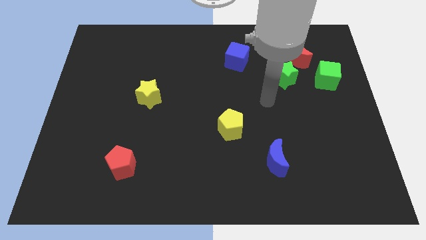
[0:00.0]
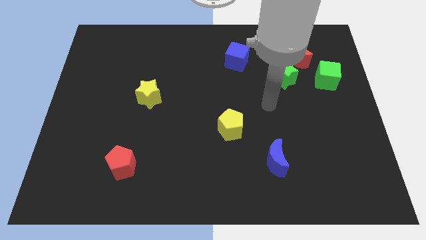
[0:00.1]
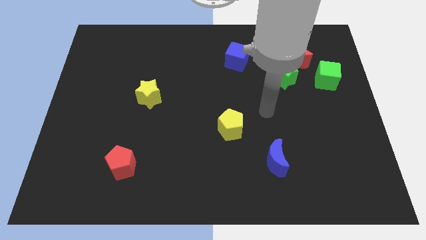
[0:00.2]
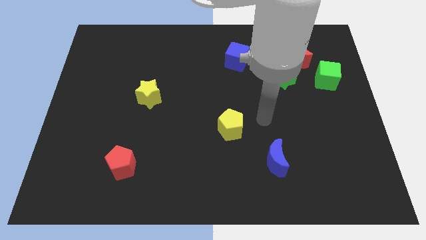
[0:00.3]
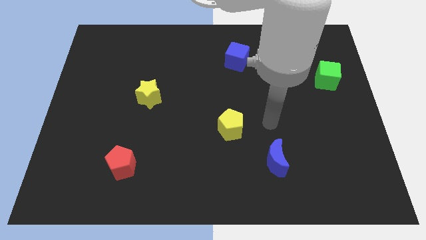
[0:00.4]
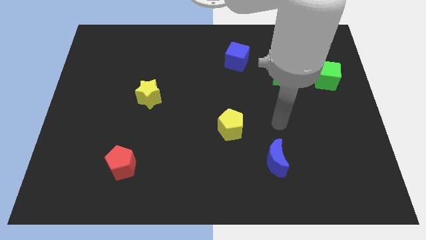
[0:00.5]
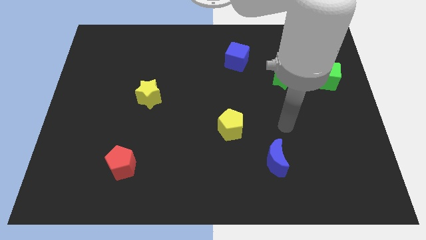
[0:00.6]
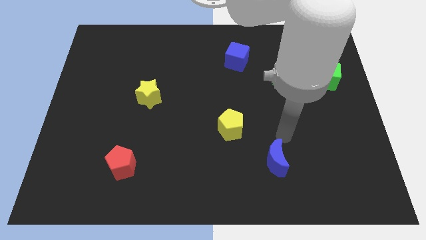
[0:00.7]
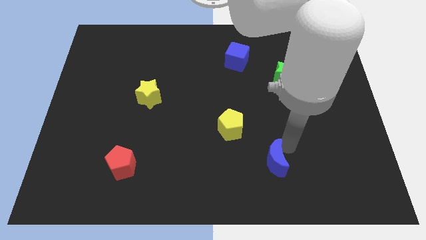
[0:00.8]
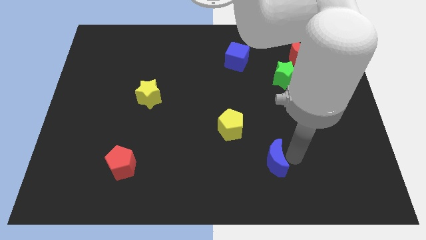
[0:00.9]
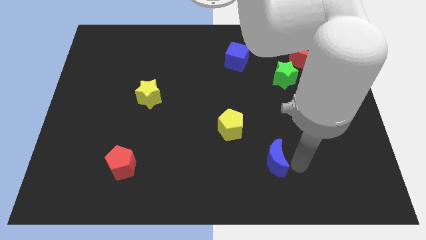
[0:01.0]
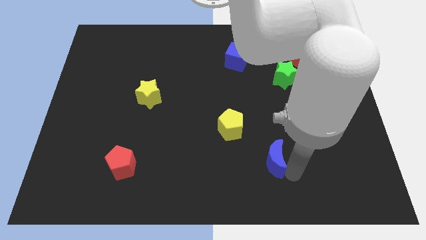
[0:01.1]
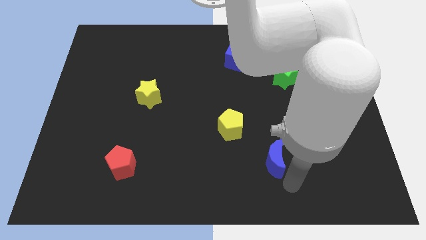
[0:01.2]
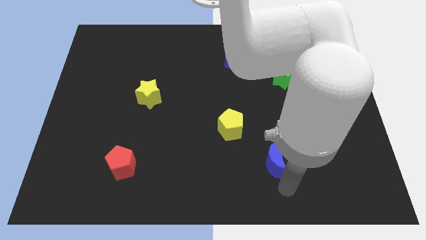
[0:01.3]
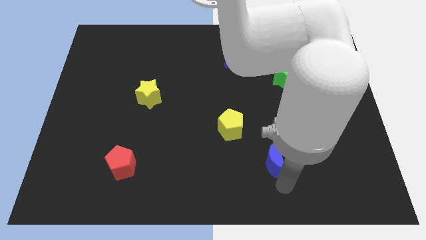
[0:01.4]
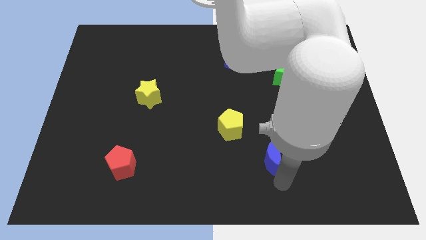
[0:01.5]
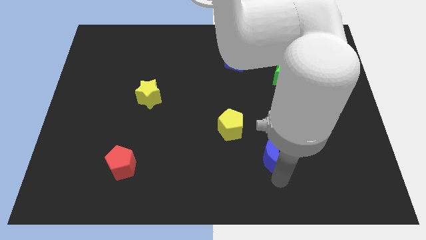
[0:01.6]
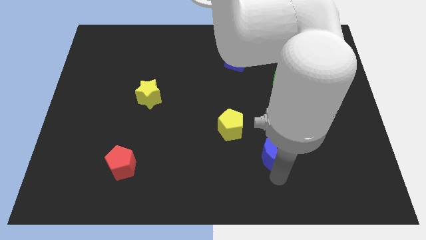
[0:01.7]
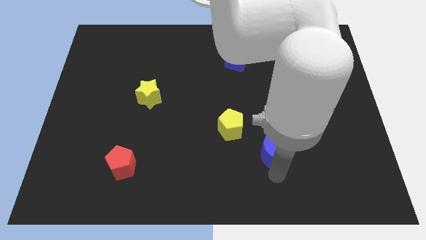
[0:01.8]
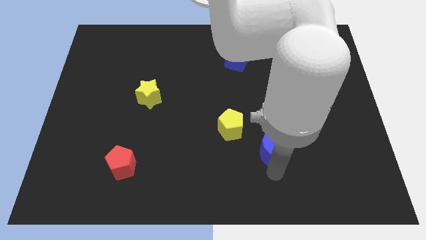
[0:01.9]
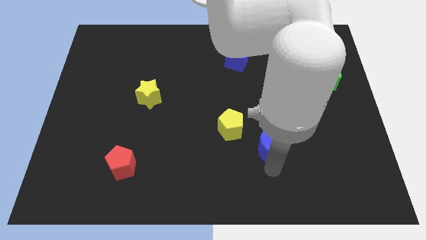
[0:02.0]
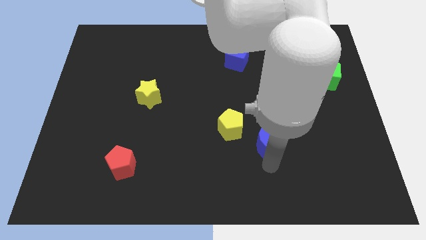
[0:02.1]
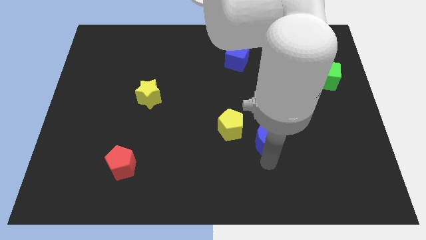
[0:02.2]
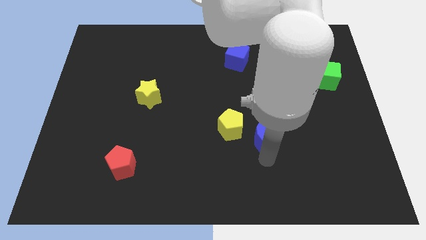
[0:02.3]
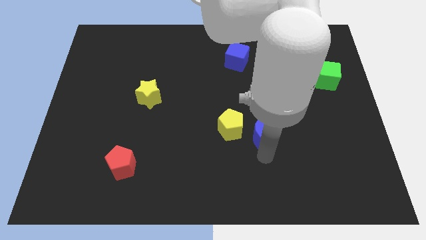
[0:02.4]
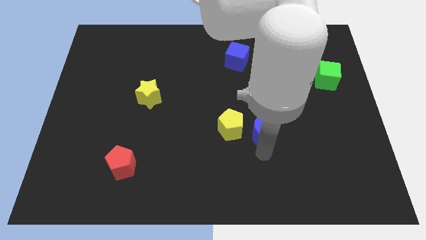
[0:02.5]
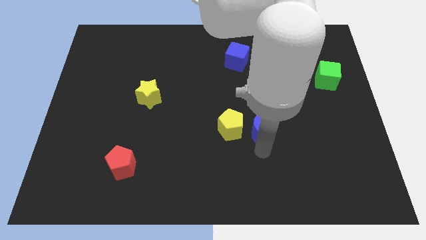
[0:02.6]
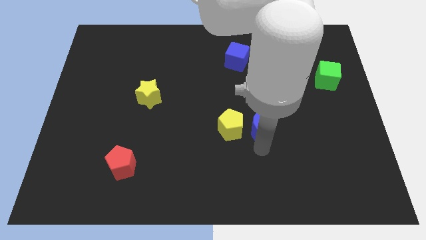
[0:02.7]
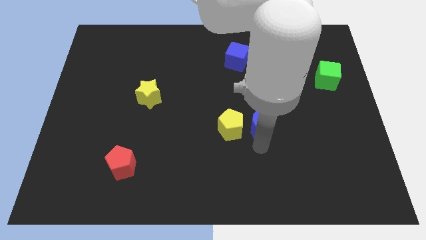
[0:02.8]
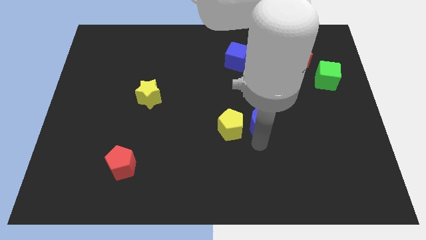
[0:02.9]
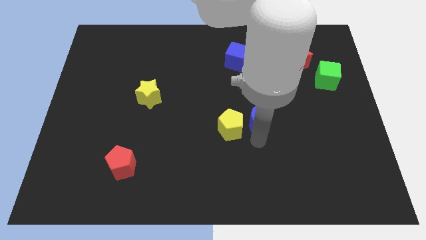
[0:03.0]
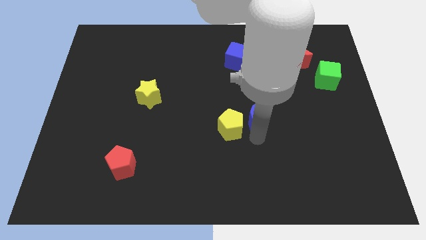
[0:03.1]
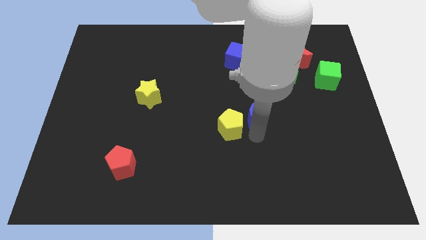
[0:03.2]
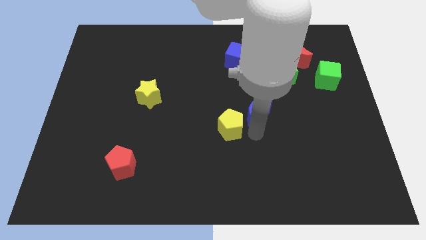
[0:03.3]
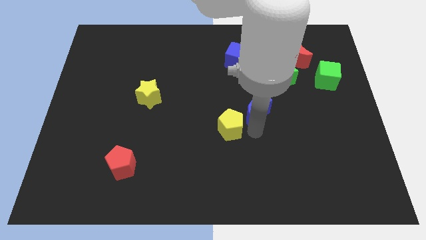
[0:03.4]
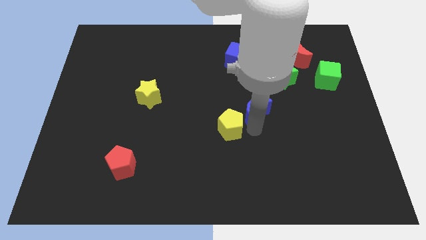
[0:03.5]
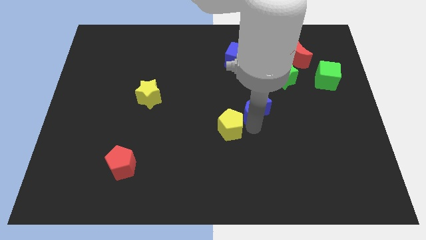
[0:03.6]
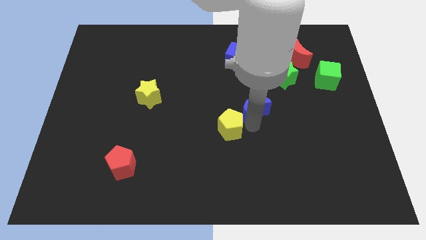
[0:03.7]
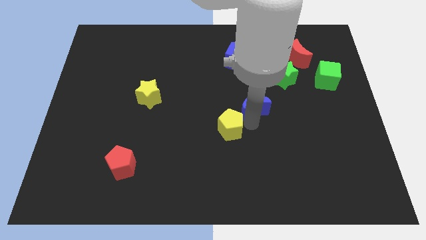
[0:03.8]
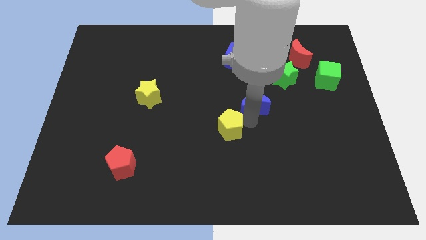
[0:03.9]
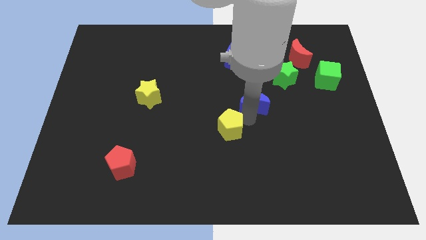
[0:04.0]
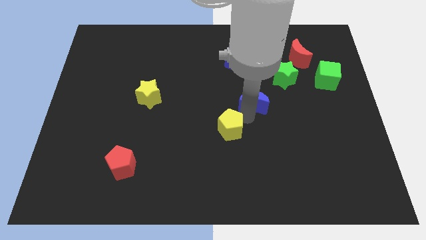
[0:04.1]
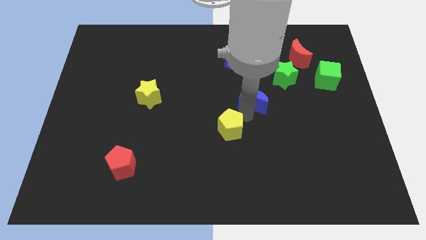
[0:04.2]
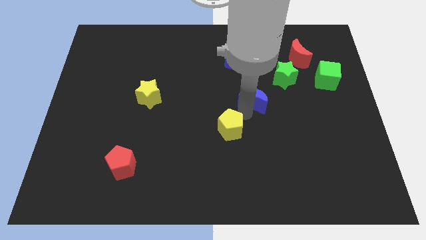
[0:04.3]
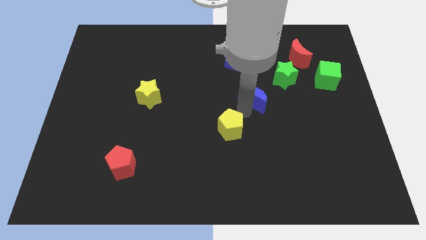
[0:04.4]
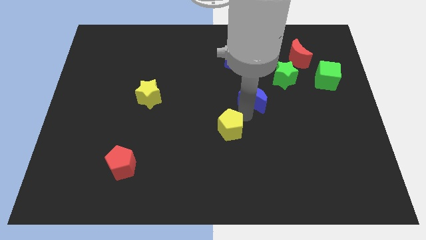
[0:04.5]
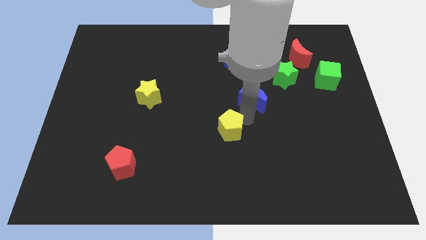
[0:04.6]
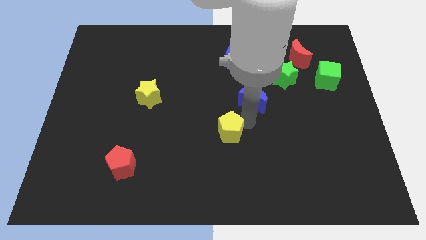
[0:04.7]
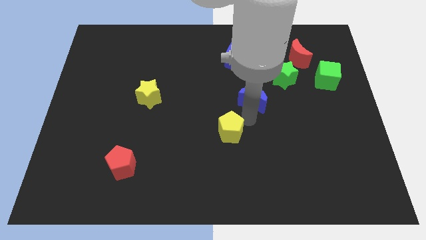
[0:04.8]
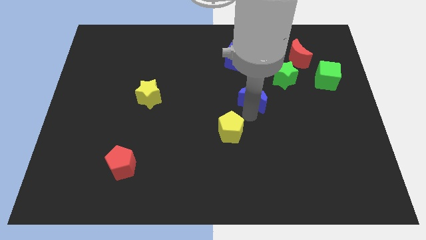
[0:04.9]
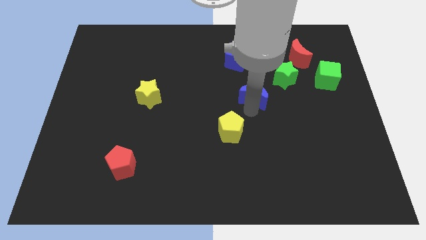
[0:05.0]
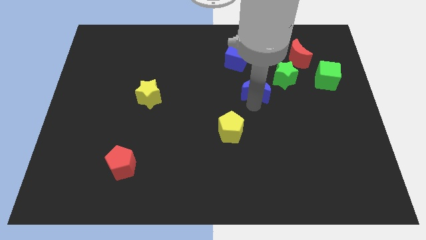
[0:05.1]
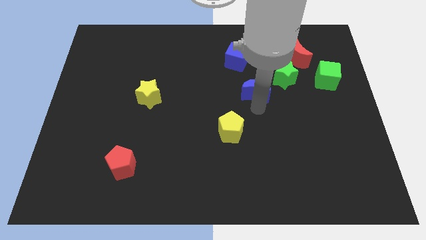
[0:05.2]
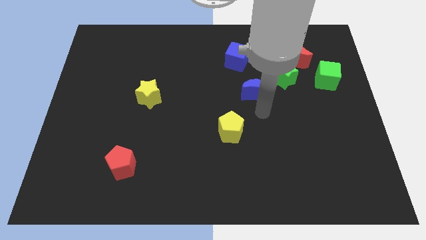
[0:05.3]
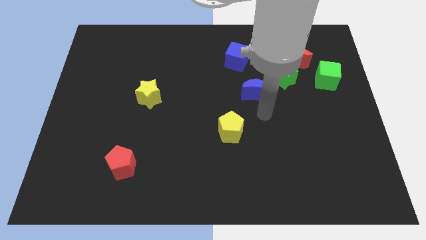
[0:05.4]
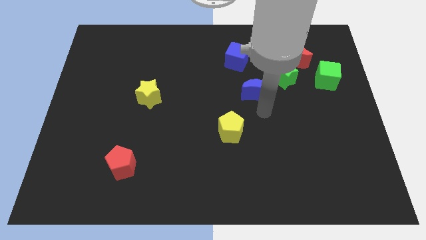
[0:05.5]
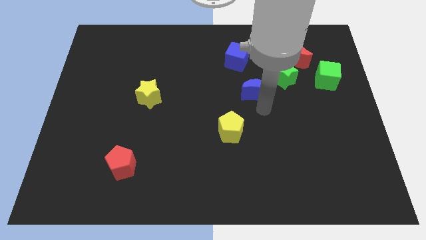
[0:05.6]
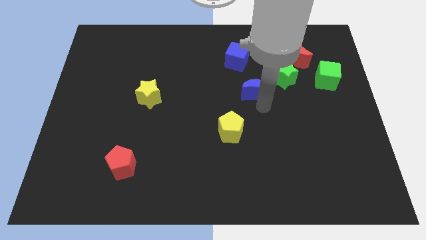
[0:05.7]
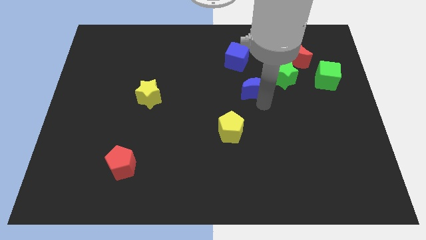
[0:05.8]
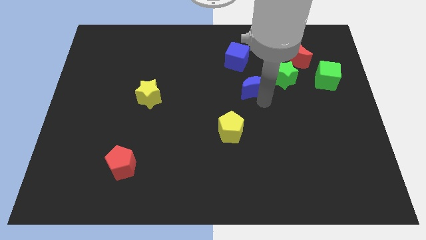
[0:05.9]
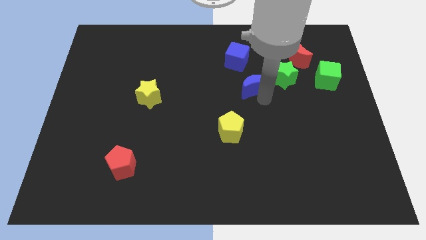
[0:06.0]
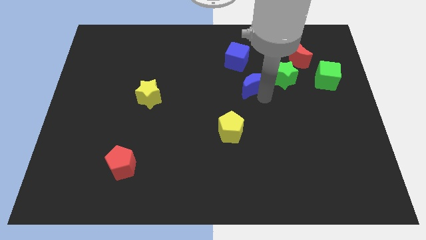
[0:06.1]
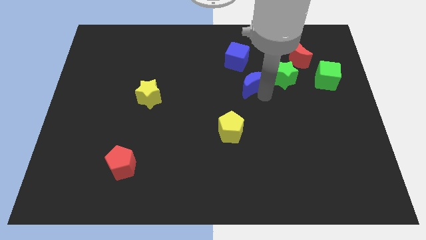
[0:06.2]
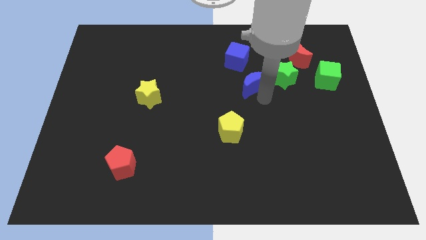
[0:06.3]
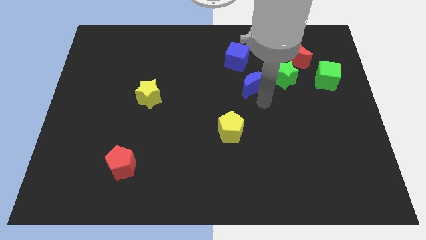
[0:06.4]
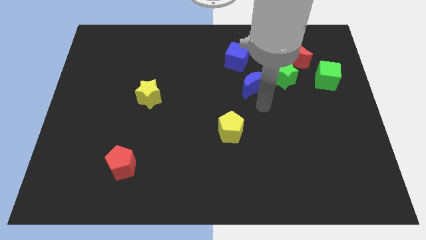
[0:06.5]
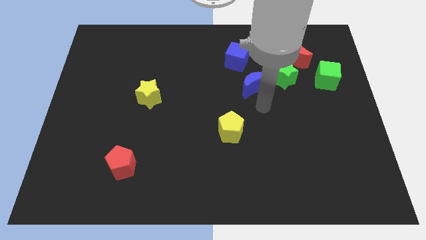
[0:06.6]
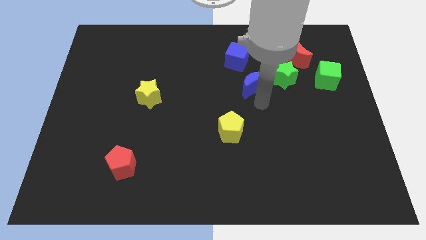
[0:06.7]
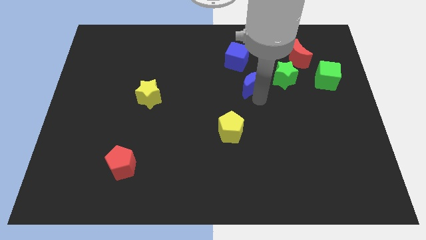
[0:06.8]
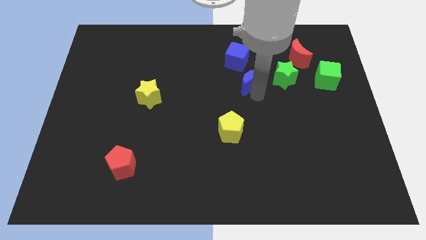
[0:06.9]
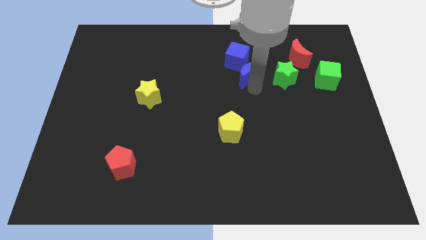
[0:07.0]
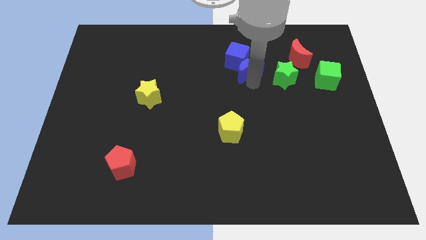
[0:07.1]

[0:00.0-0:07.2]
put the blue moon to the blue cube
